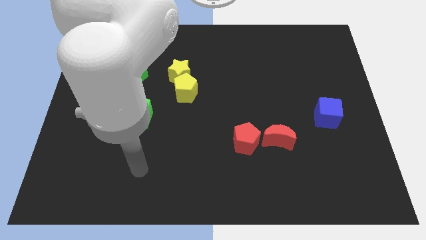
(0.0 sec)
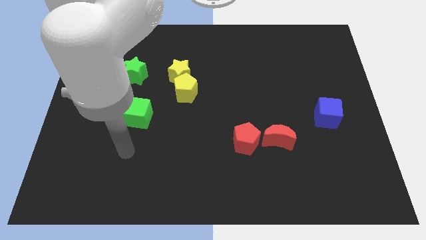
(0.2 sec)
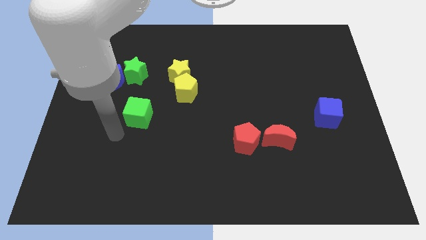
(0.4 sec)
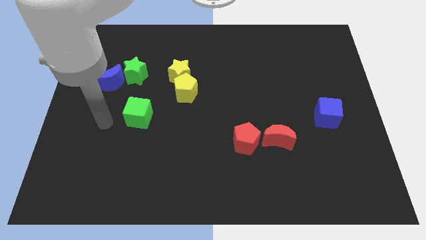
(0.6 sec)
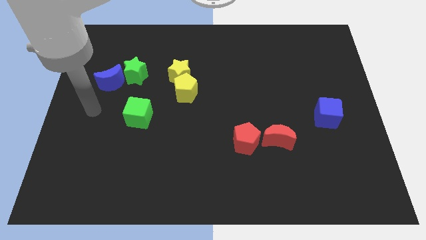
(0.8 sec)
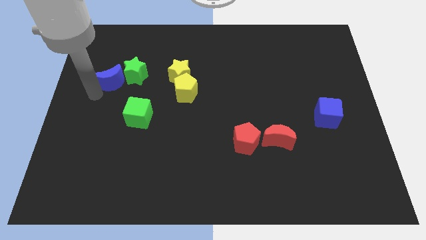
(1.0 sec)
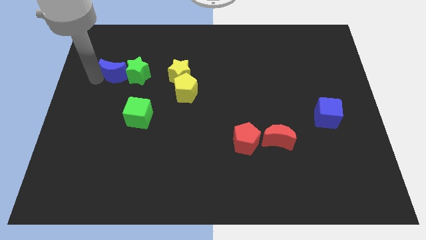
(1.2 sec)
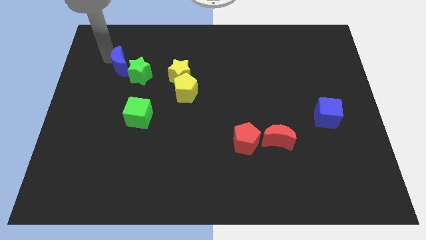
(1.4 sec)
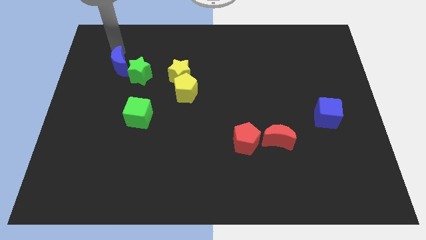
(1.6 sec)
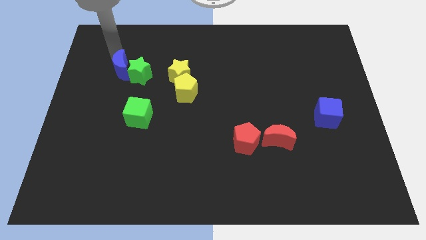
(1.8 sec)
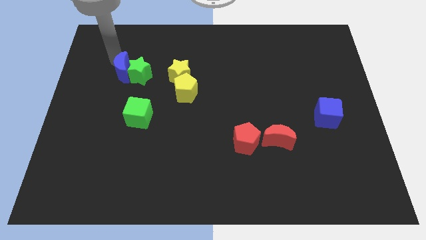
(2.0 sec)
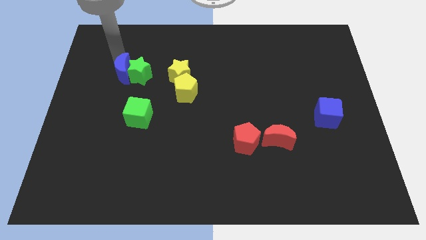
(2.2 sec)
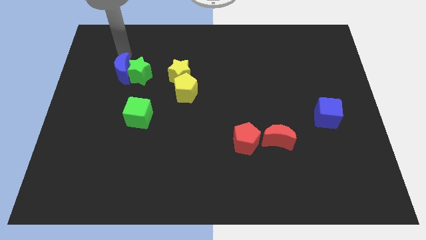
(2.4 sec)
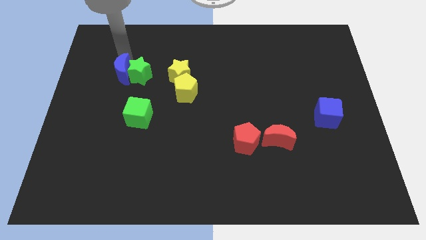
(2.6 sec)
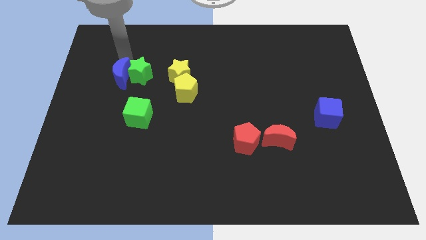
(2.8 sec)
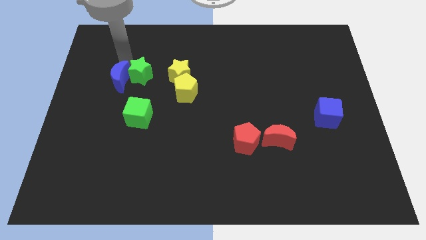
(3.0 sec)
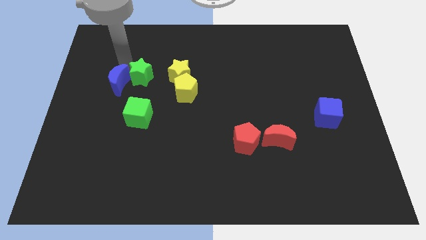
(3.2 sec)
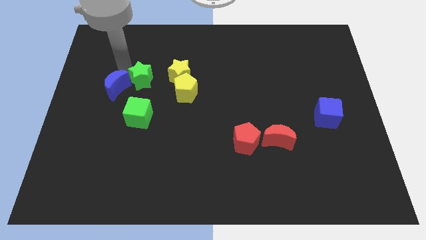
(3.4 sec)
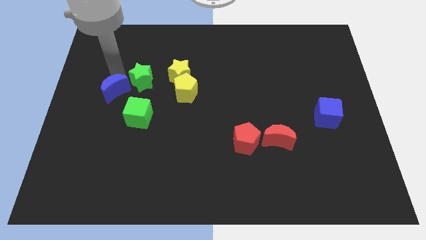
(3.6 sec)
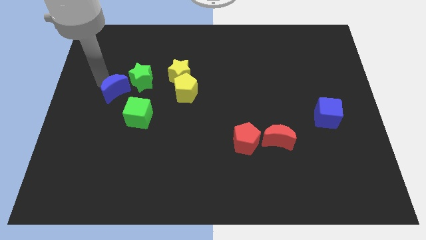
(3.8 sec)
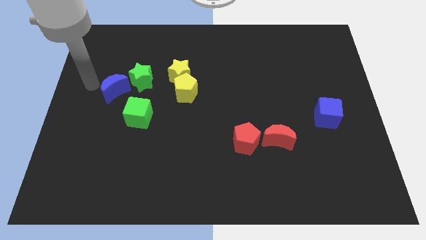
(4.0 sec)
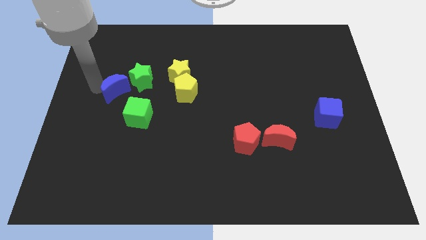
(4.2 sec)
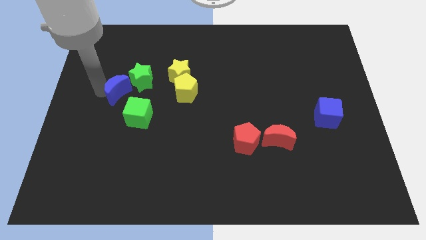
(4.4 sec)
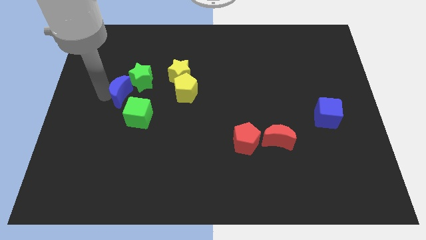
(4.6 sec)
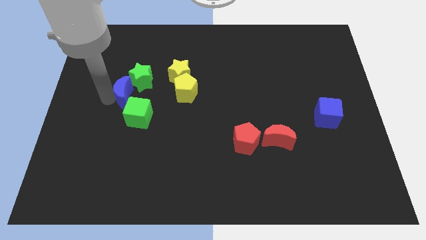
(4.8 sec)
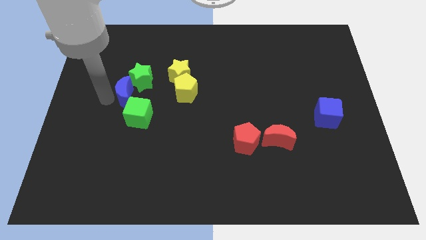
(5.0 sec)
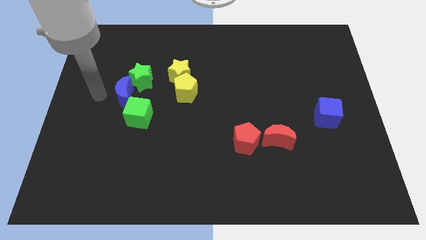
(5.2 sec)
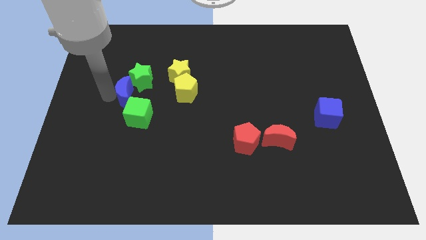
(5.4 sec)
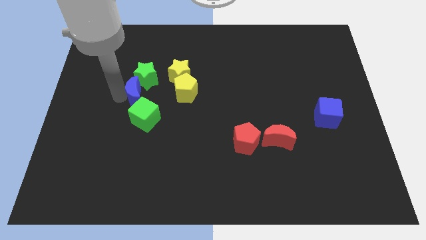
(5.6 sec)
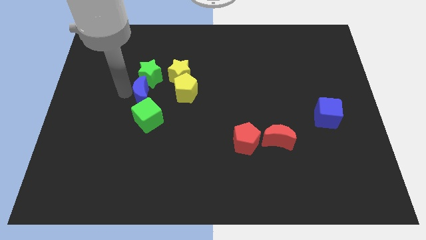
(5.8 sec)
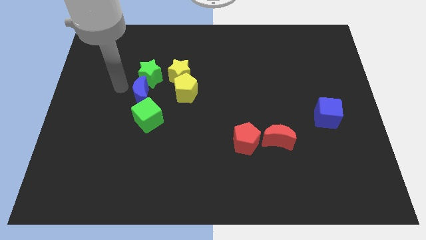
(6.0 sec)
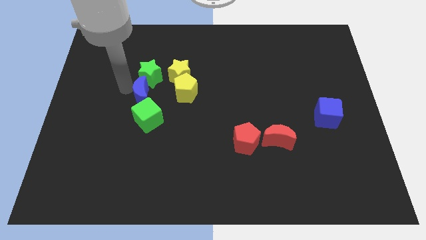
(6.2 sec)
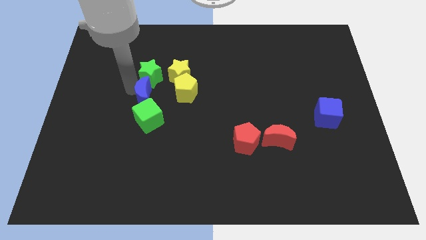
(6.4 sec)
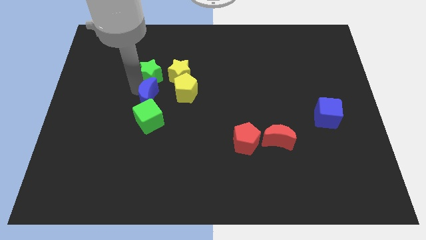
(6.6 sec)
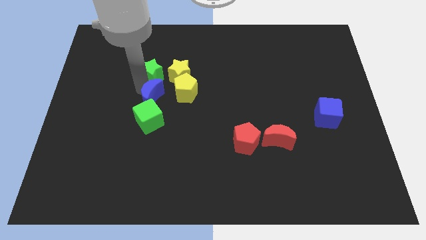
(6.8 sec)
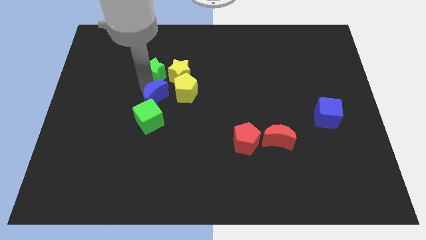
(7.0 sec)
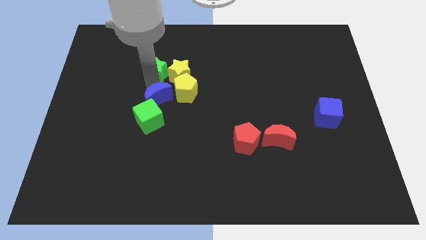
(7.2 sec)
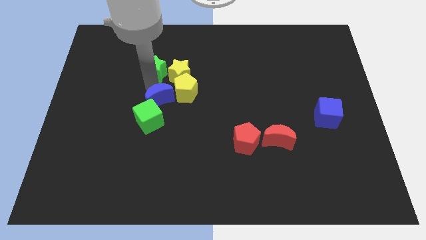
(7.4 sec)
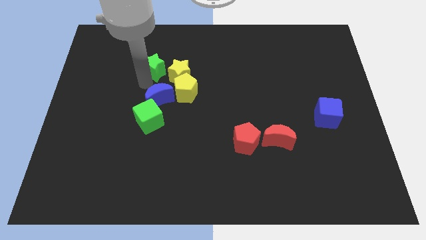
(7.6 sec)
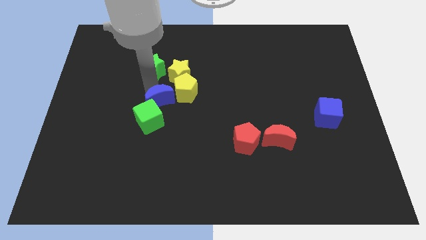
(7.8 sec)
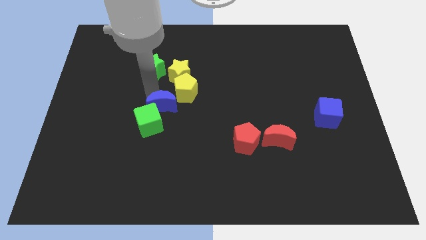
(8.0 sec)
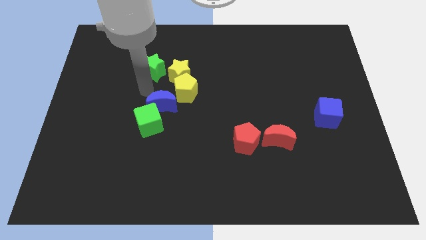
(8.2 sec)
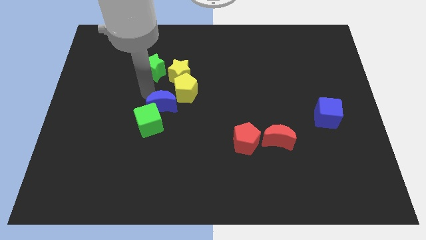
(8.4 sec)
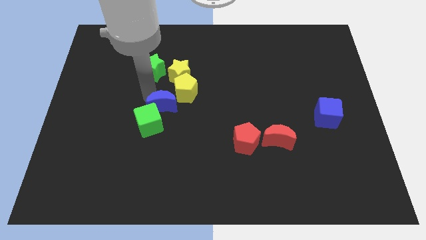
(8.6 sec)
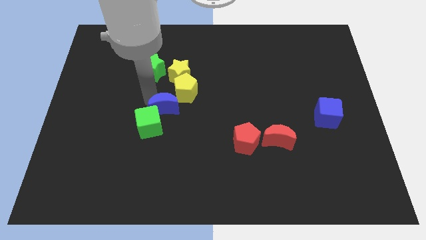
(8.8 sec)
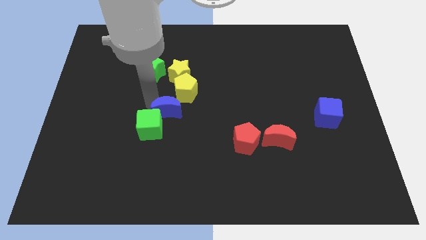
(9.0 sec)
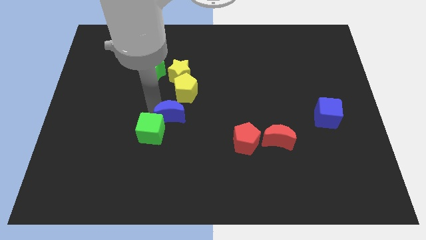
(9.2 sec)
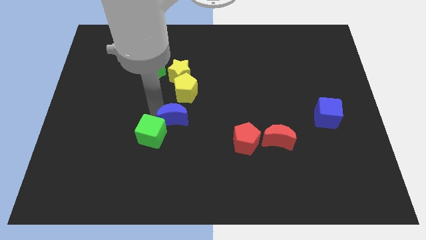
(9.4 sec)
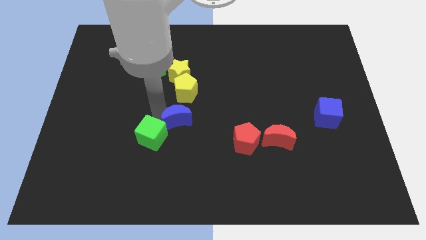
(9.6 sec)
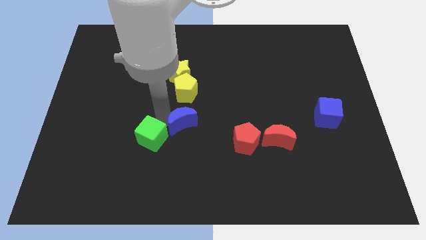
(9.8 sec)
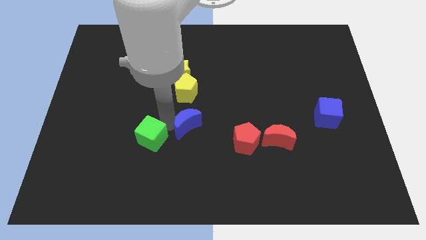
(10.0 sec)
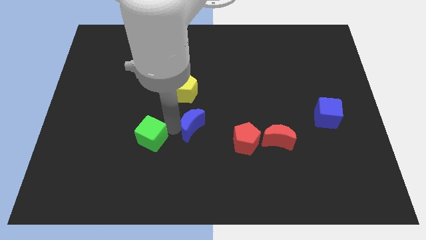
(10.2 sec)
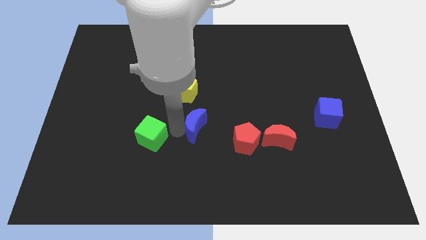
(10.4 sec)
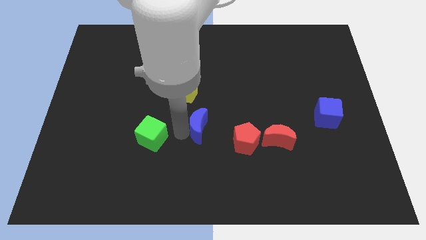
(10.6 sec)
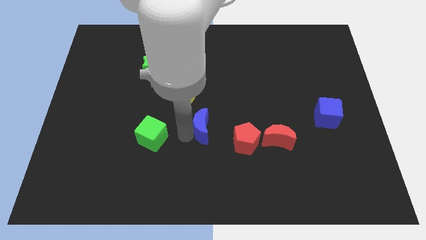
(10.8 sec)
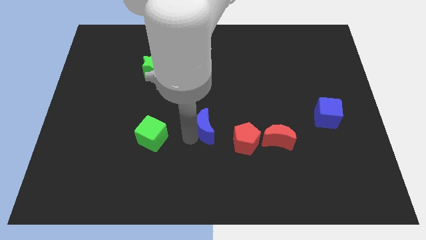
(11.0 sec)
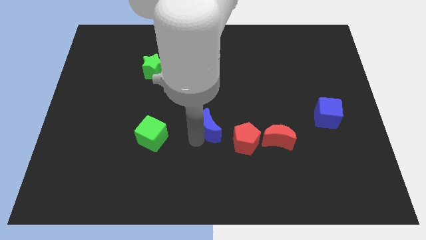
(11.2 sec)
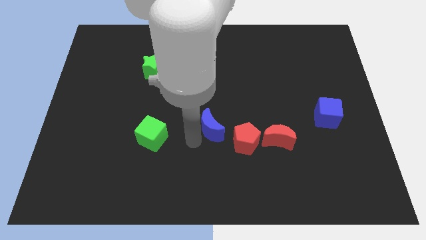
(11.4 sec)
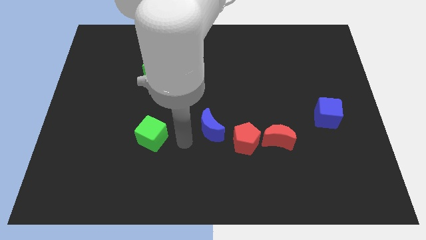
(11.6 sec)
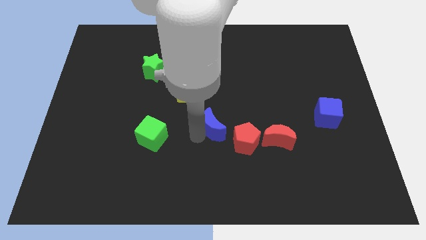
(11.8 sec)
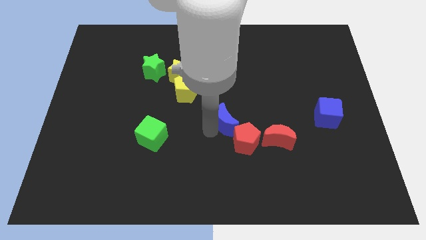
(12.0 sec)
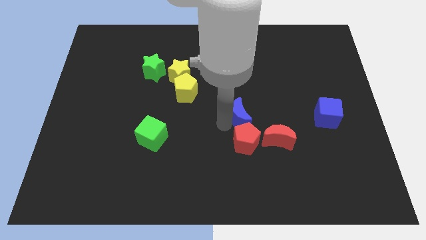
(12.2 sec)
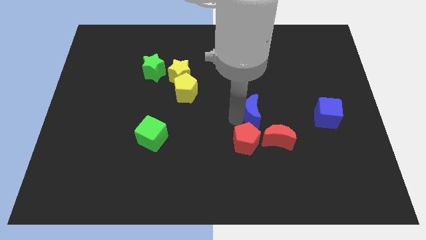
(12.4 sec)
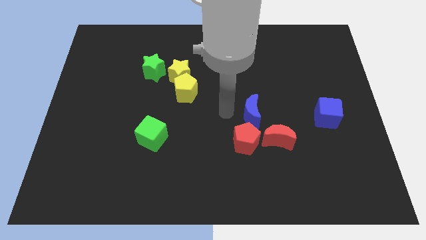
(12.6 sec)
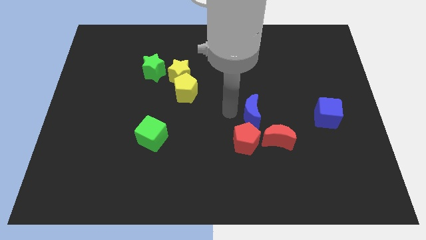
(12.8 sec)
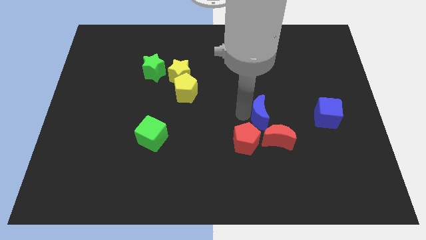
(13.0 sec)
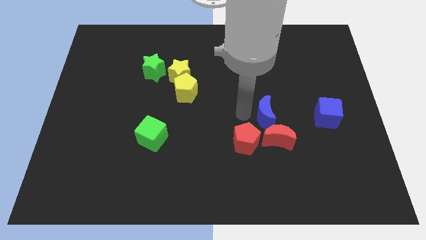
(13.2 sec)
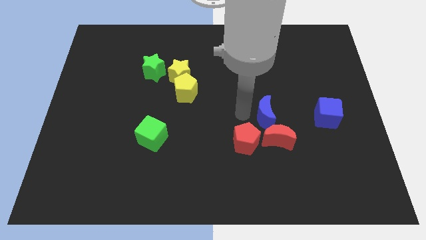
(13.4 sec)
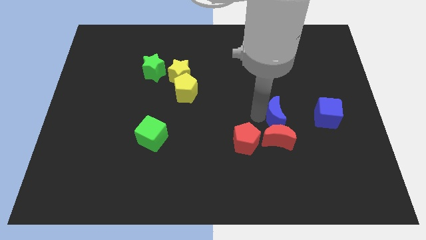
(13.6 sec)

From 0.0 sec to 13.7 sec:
put the blue moon diagonally up and to the right of the red moon
